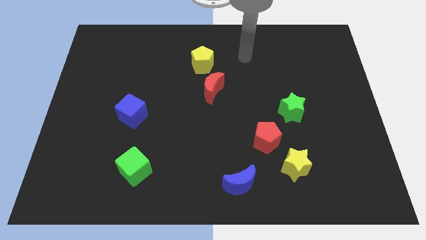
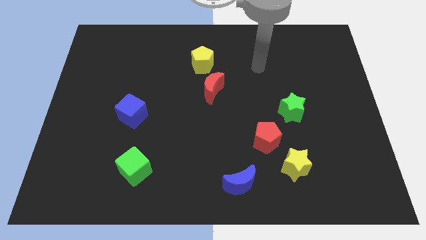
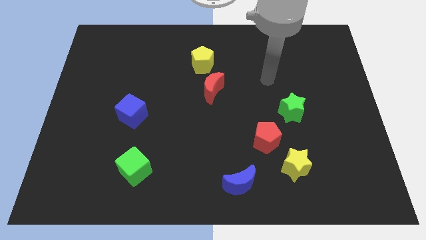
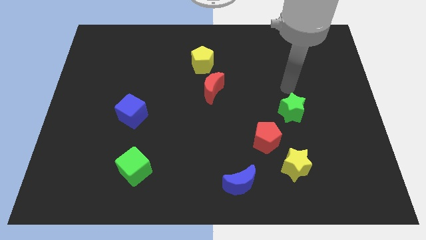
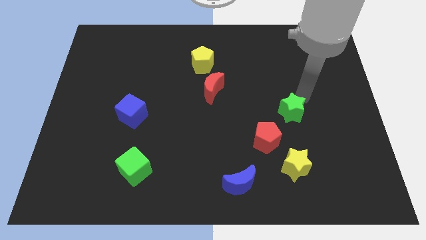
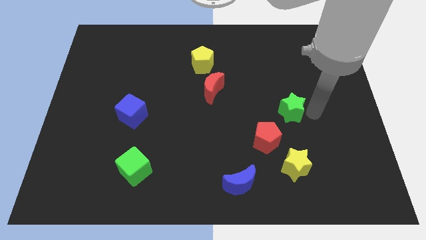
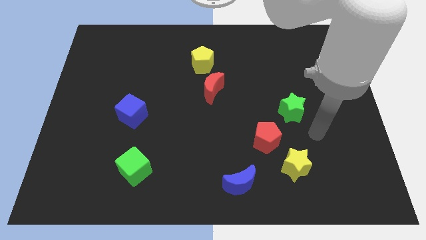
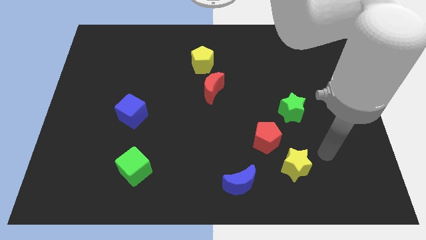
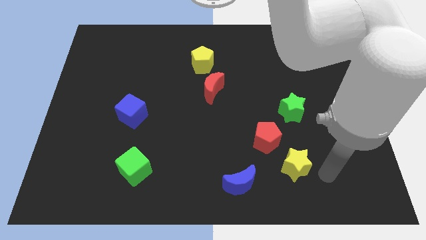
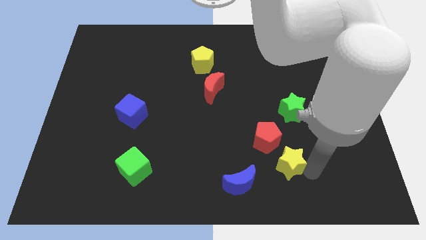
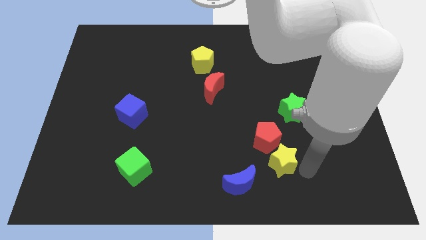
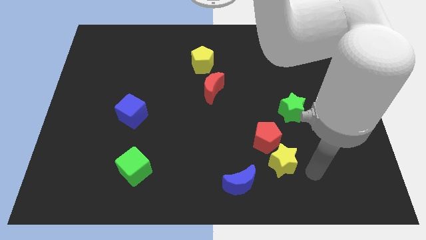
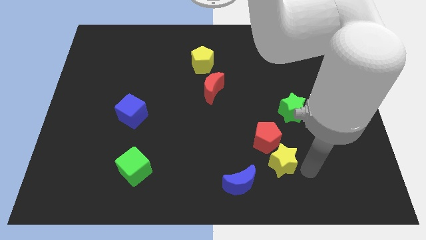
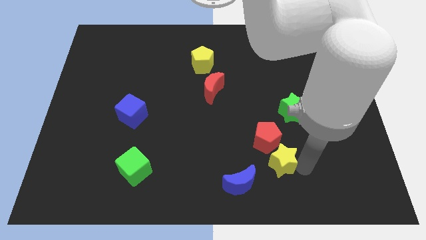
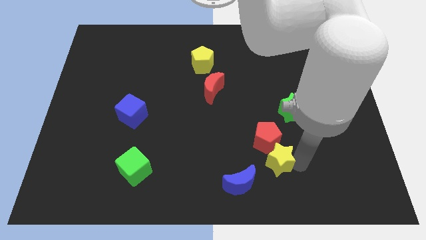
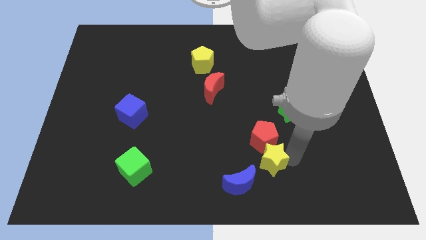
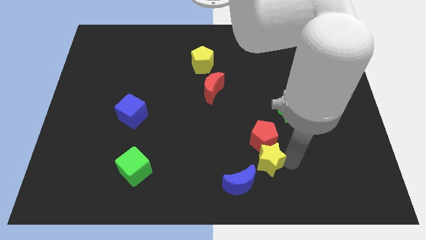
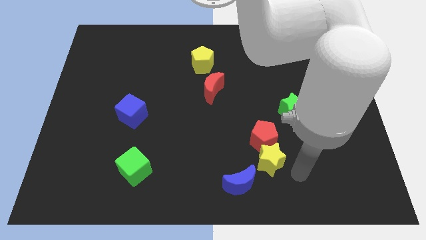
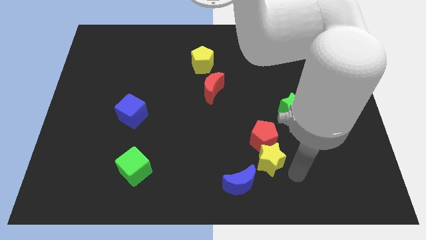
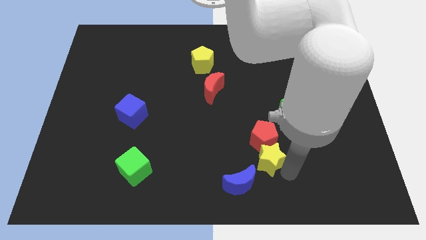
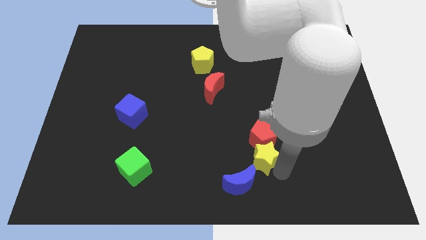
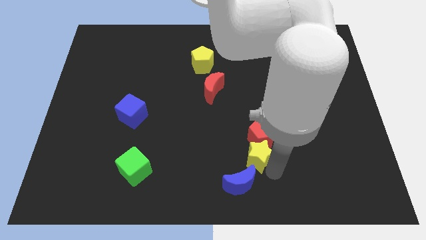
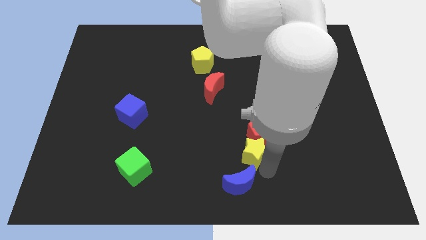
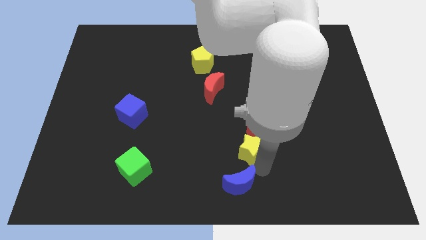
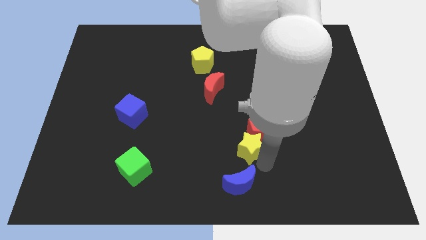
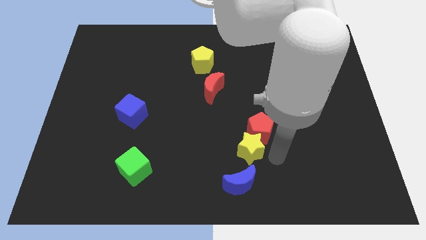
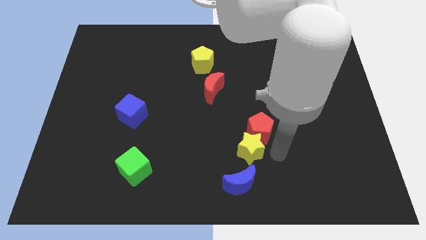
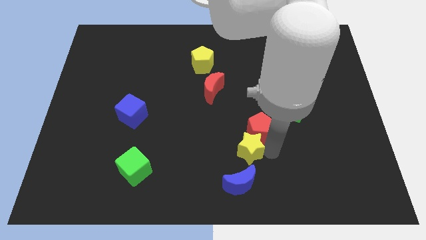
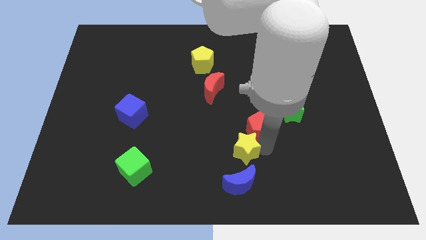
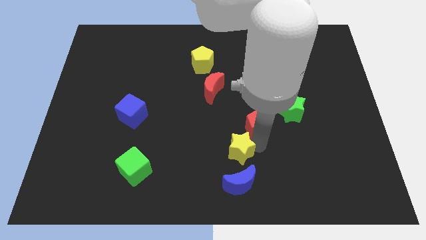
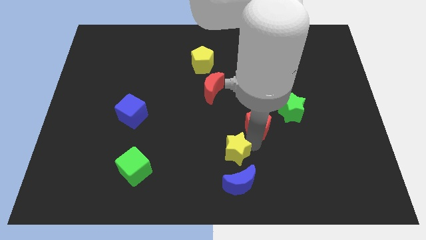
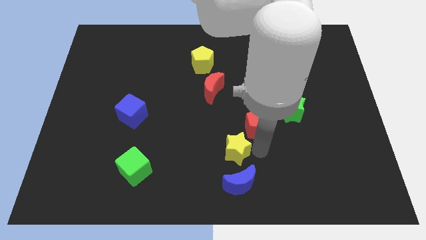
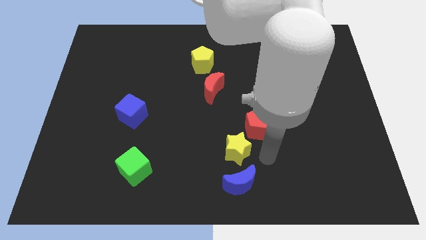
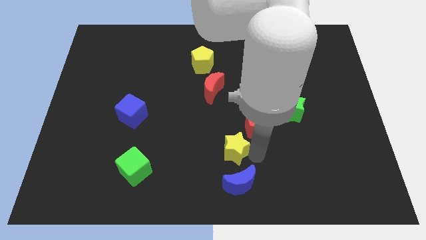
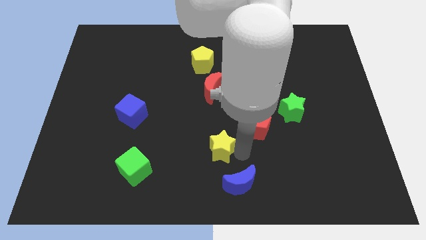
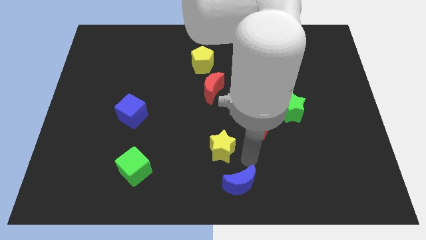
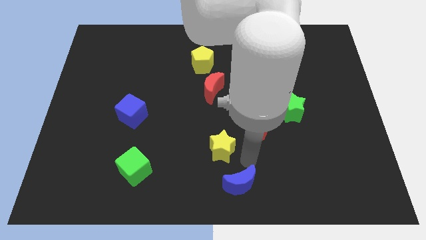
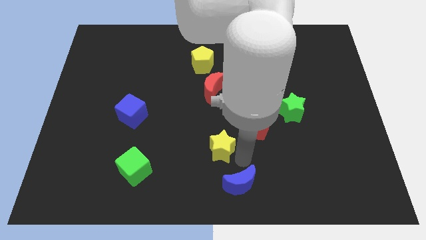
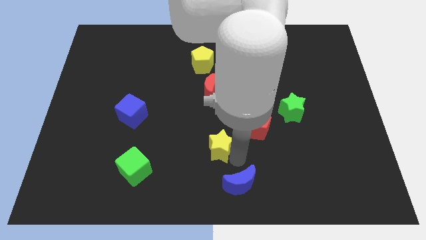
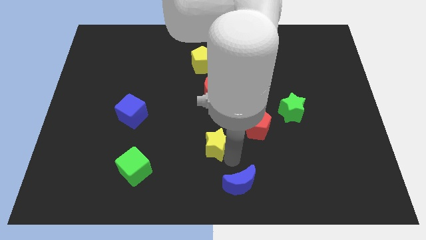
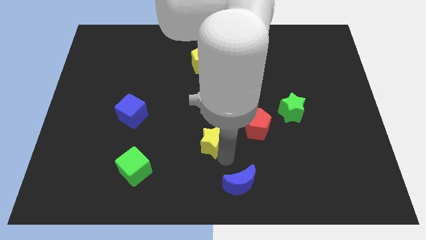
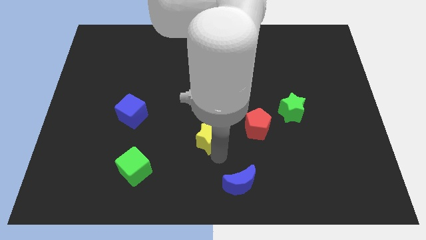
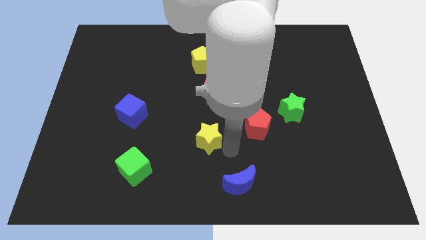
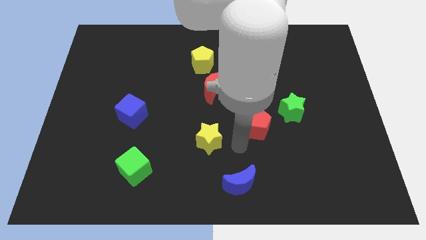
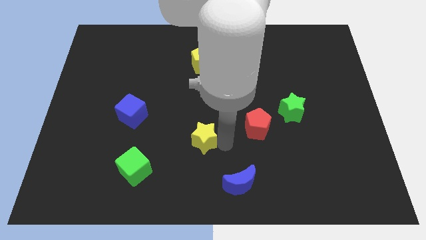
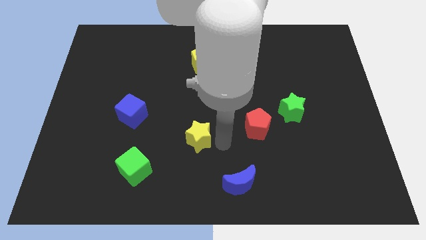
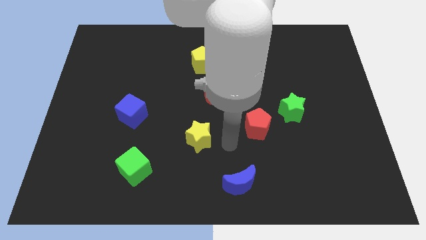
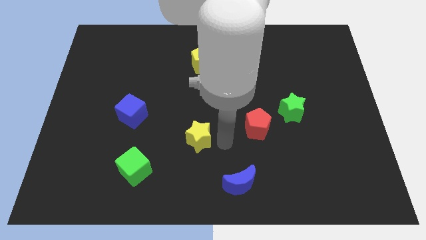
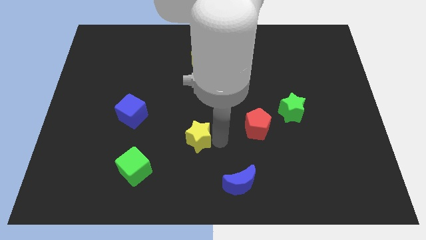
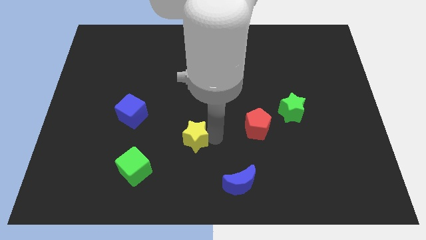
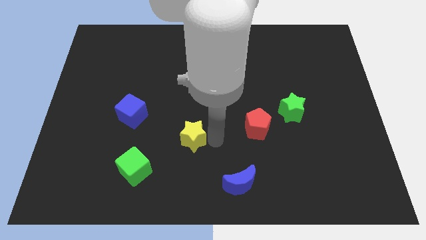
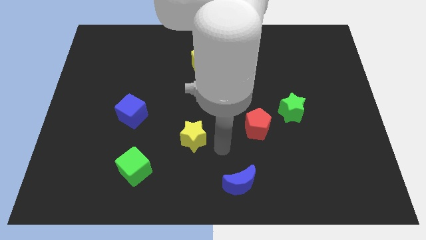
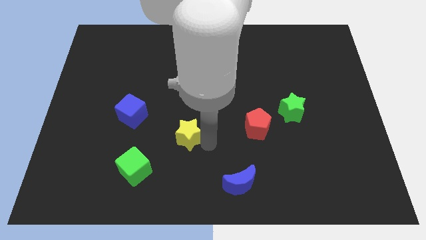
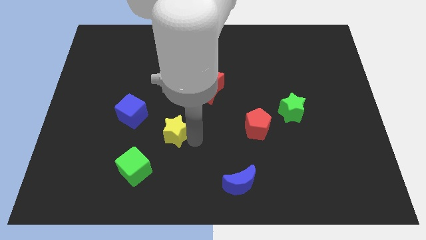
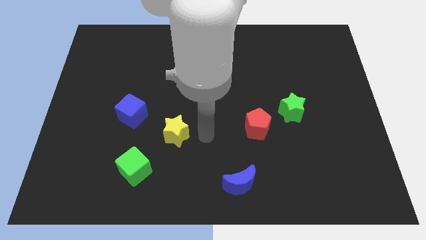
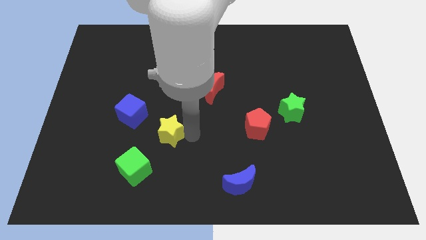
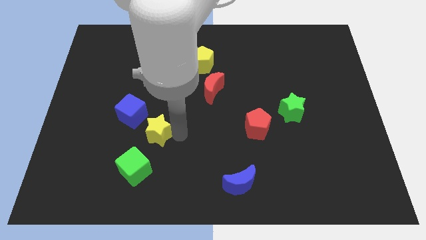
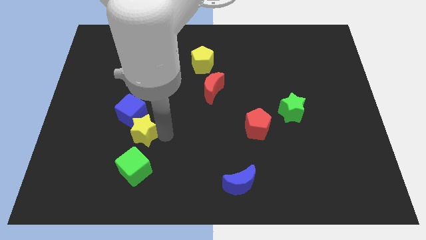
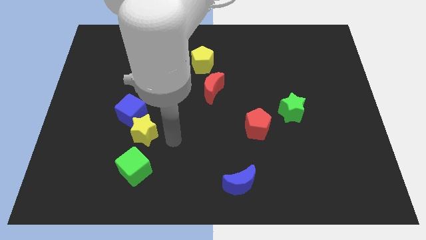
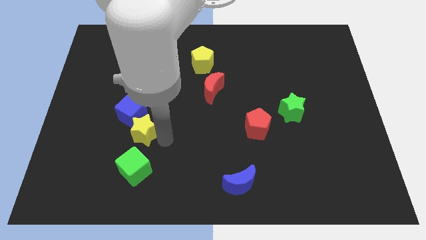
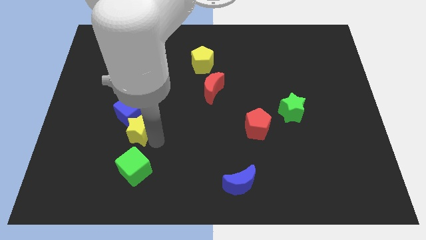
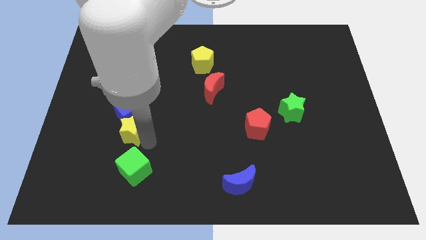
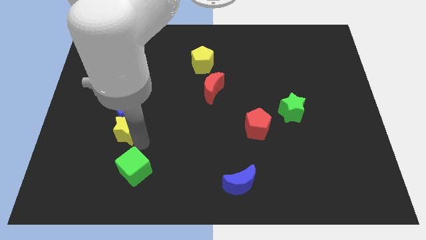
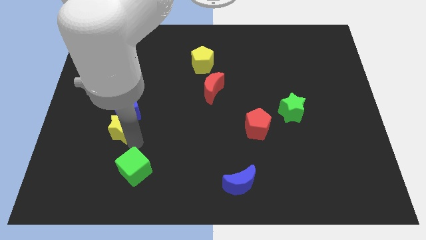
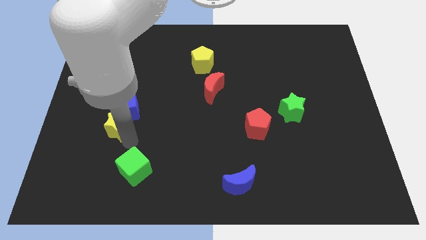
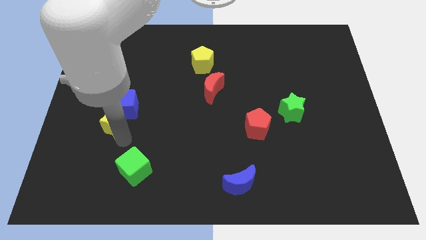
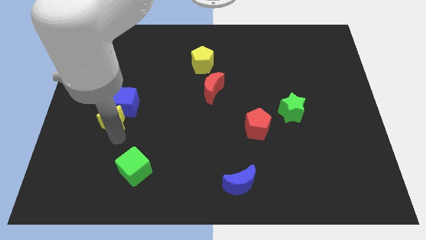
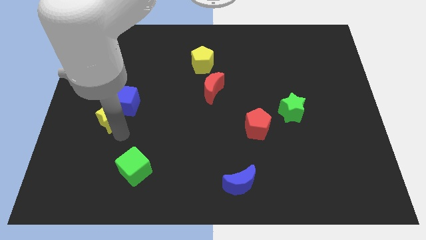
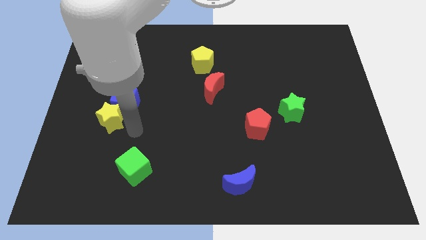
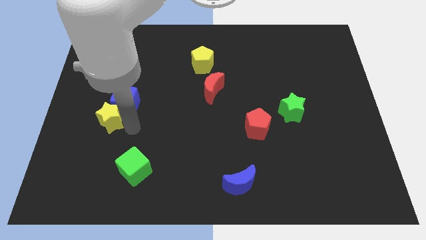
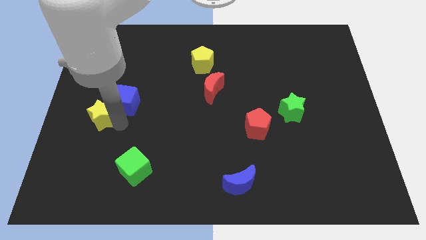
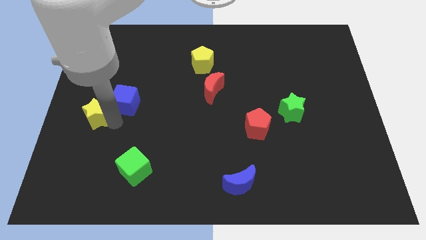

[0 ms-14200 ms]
push the yellow star to the left side of the board
